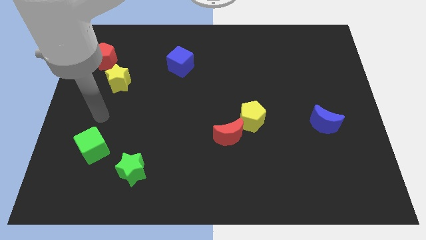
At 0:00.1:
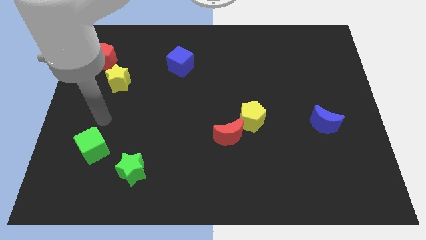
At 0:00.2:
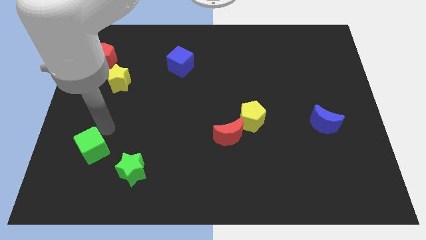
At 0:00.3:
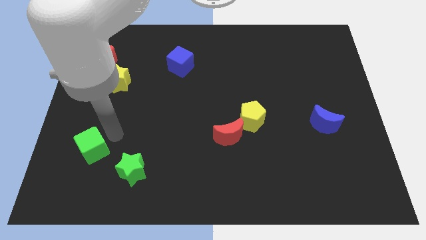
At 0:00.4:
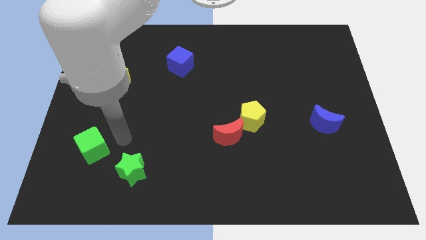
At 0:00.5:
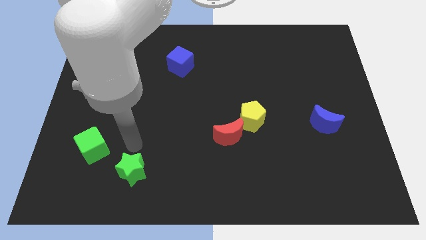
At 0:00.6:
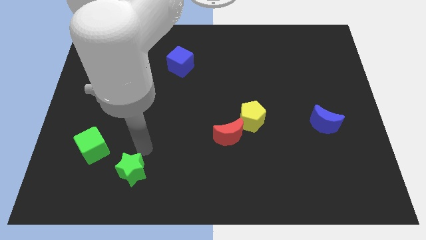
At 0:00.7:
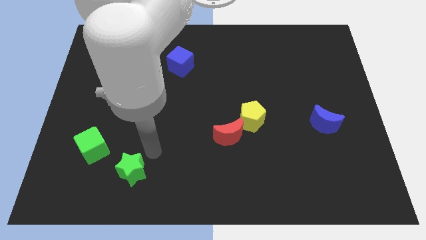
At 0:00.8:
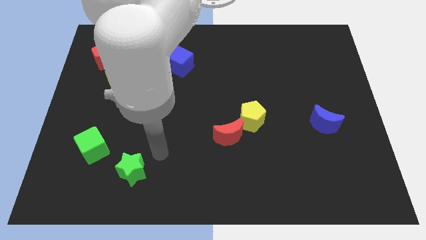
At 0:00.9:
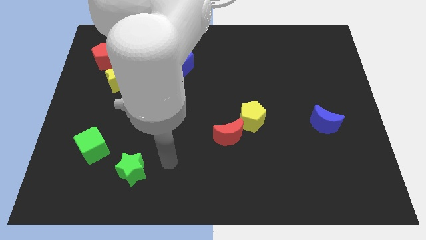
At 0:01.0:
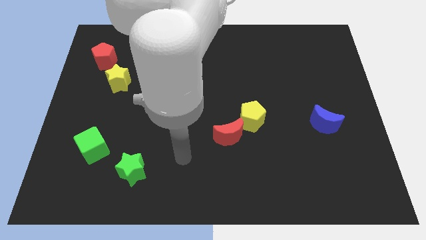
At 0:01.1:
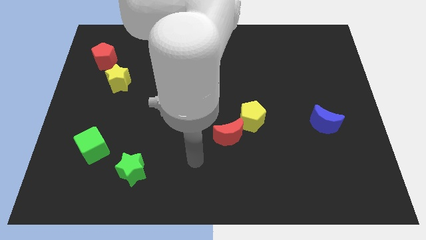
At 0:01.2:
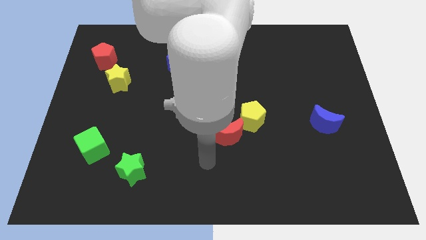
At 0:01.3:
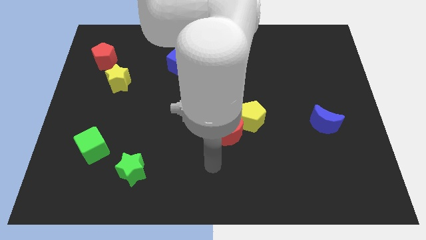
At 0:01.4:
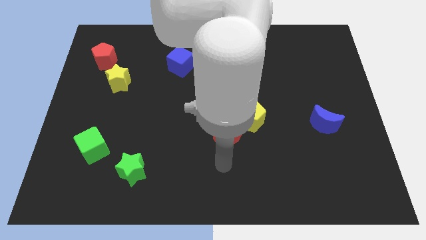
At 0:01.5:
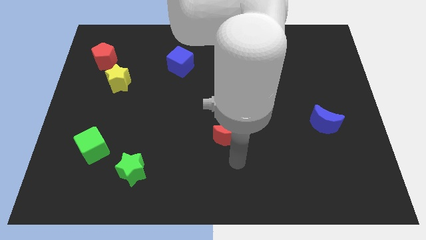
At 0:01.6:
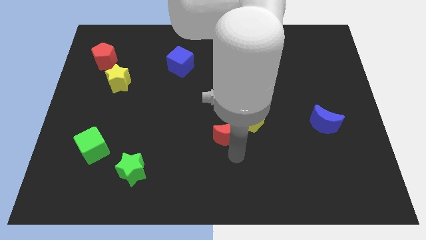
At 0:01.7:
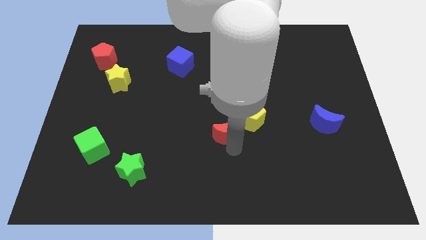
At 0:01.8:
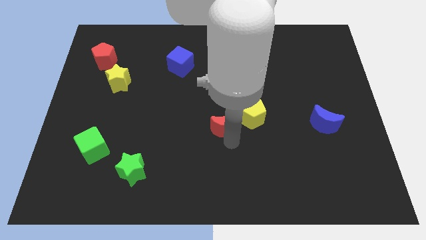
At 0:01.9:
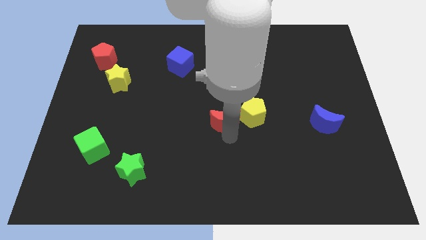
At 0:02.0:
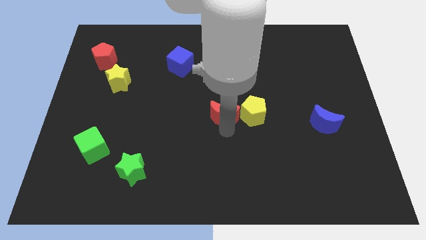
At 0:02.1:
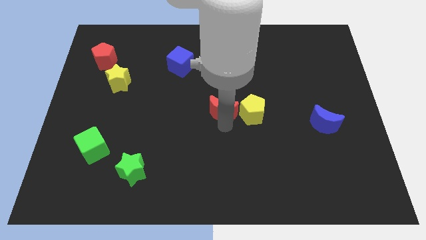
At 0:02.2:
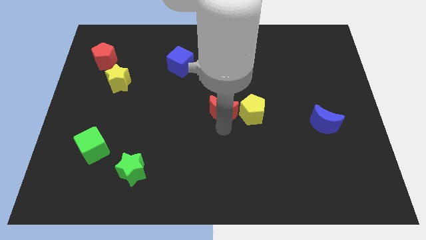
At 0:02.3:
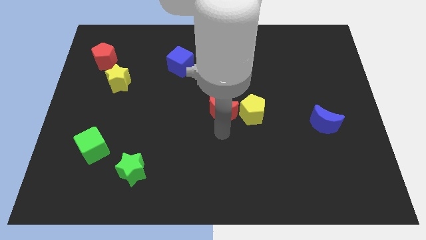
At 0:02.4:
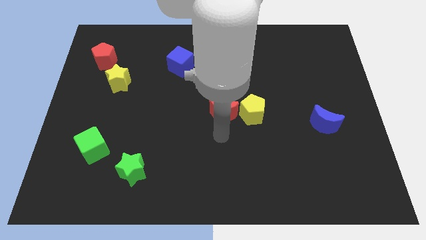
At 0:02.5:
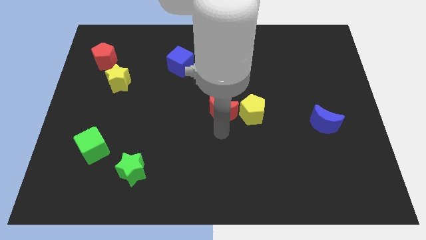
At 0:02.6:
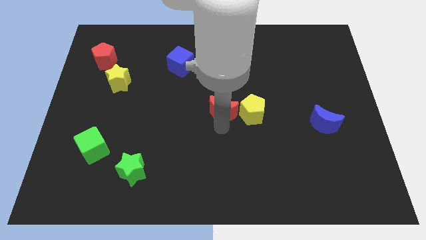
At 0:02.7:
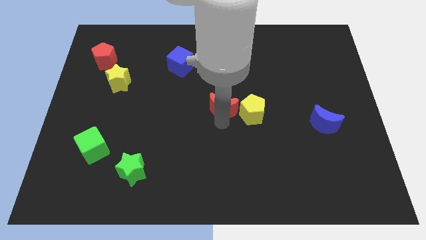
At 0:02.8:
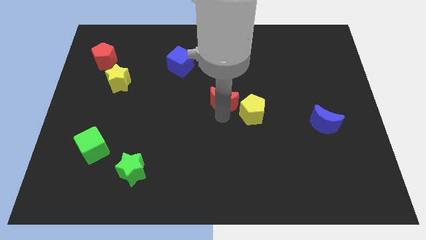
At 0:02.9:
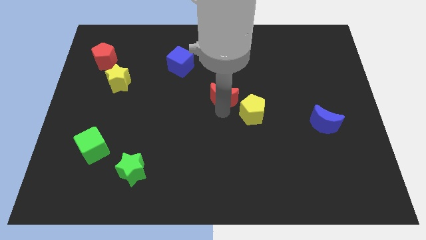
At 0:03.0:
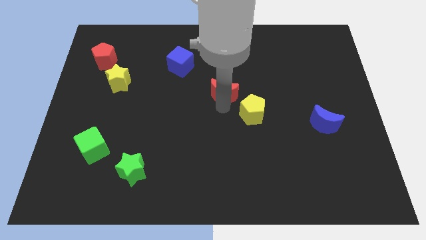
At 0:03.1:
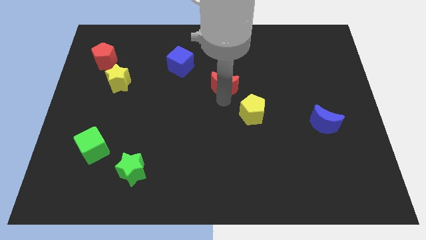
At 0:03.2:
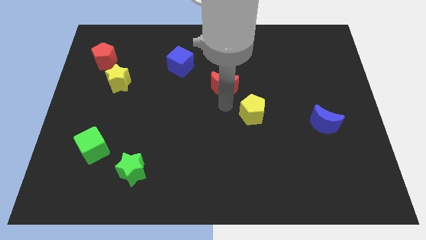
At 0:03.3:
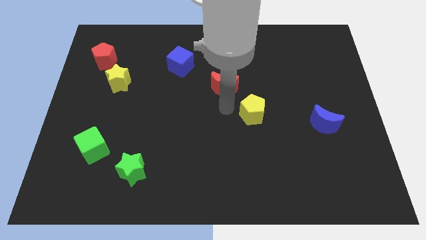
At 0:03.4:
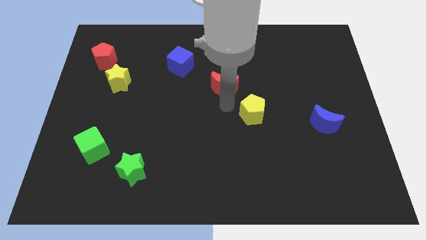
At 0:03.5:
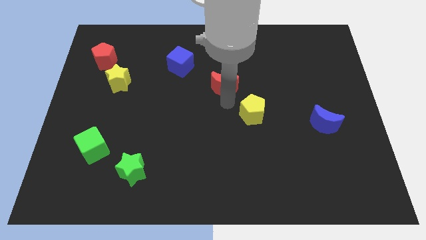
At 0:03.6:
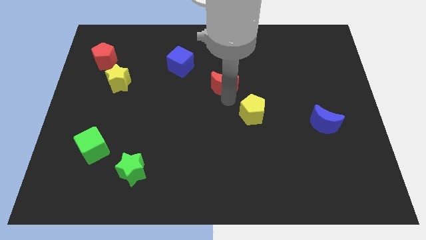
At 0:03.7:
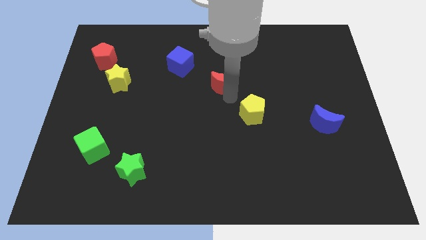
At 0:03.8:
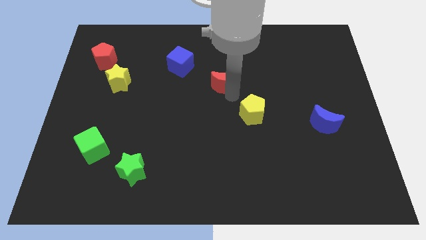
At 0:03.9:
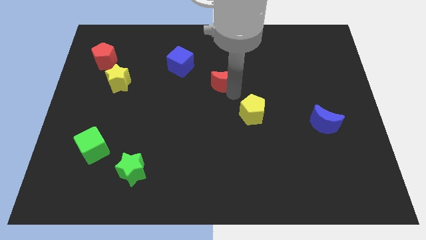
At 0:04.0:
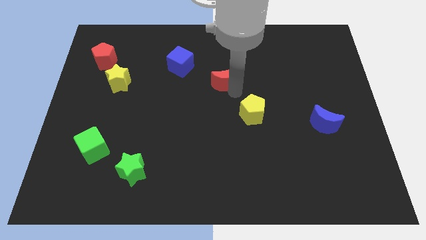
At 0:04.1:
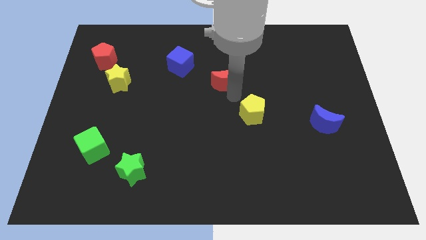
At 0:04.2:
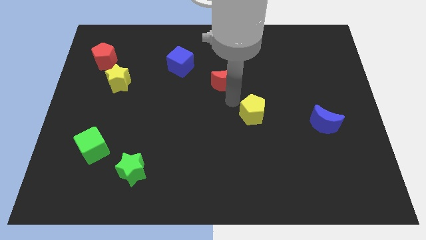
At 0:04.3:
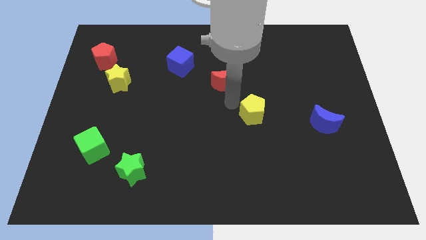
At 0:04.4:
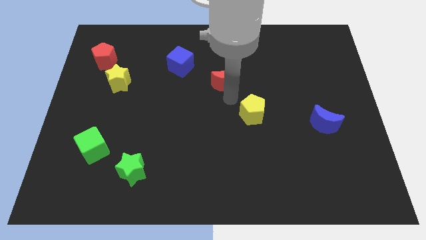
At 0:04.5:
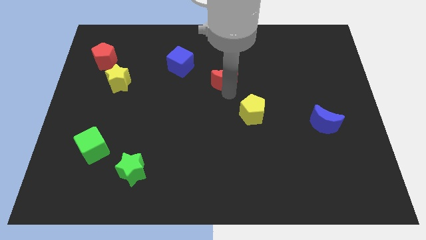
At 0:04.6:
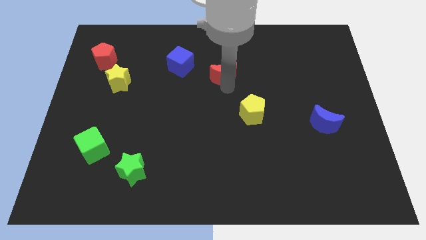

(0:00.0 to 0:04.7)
slide the red moon to the right of the blue cube

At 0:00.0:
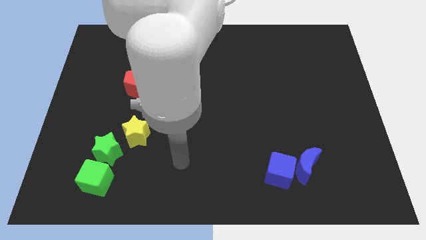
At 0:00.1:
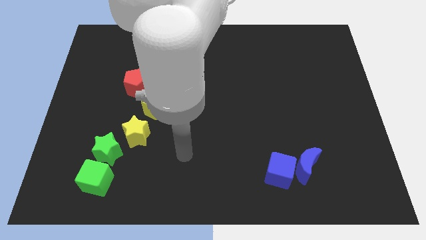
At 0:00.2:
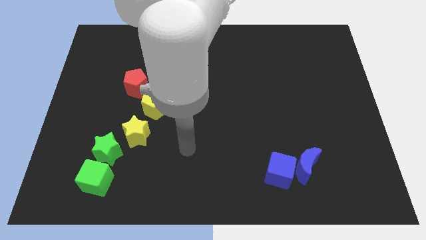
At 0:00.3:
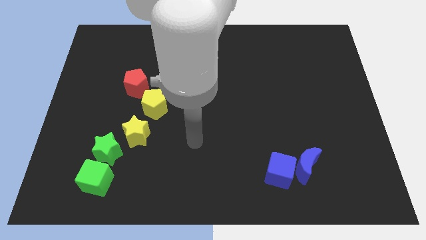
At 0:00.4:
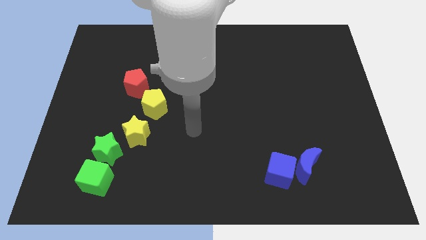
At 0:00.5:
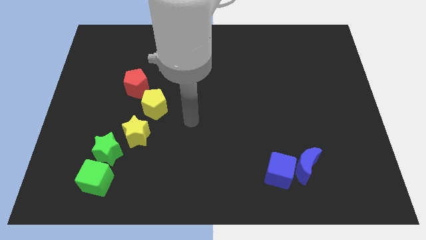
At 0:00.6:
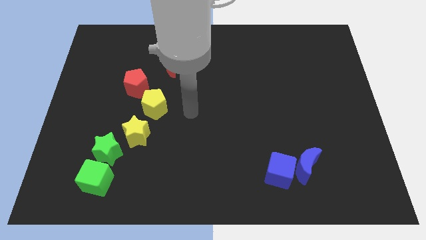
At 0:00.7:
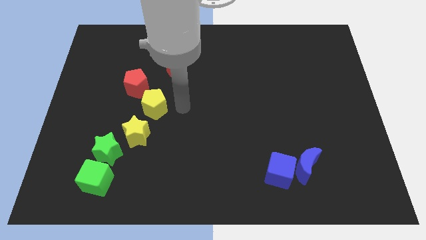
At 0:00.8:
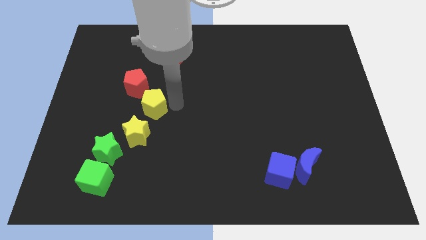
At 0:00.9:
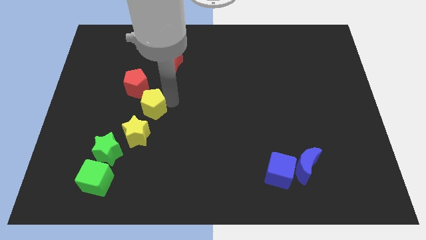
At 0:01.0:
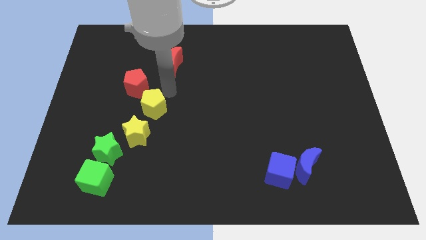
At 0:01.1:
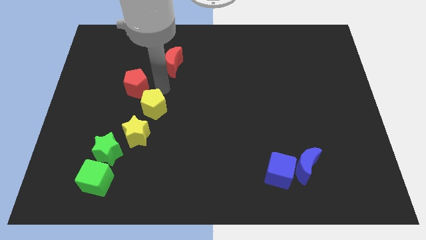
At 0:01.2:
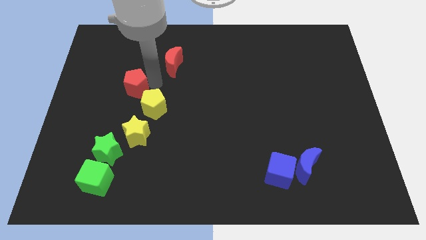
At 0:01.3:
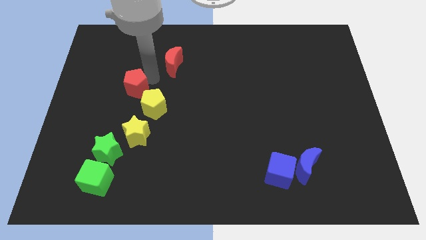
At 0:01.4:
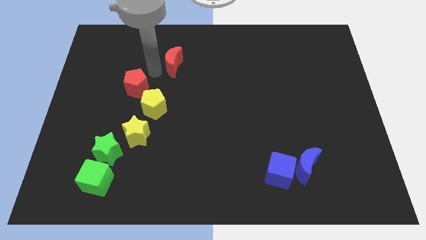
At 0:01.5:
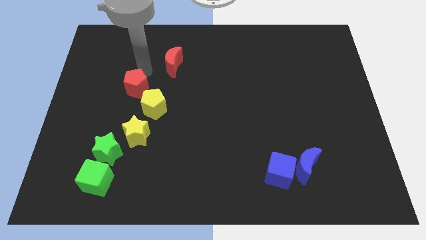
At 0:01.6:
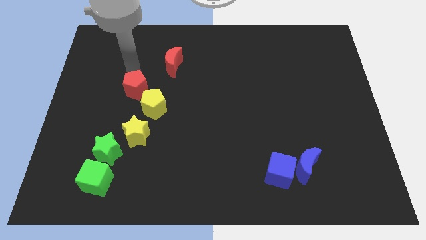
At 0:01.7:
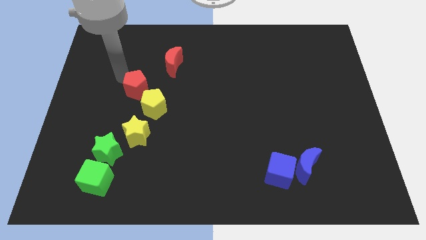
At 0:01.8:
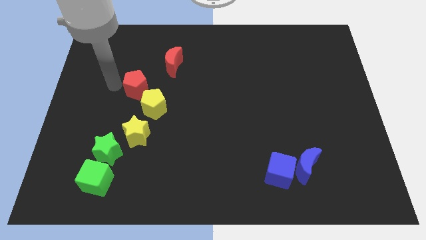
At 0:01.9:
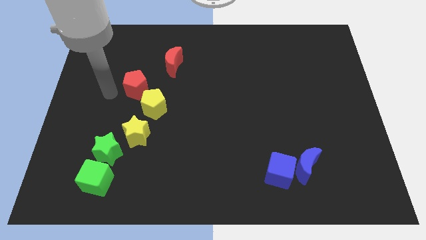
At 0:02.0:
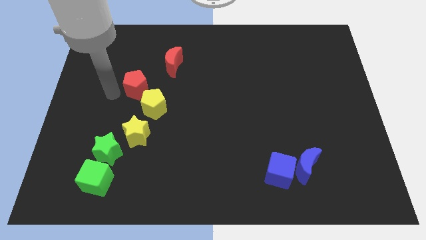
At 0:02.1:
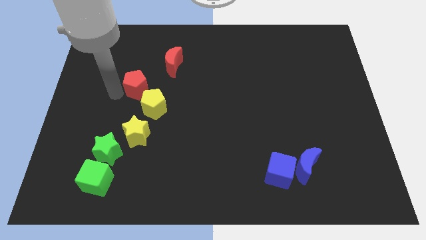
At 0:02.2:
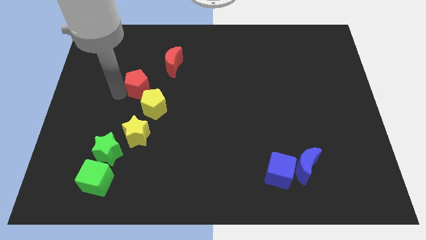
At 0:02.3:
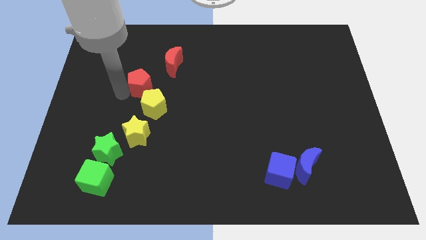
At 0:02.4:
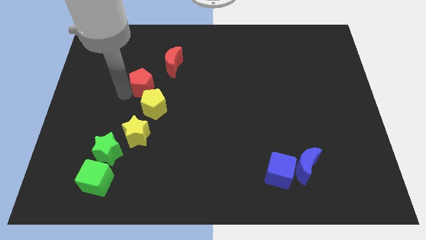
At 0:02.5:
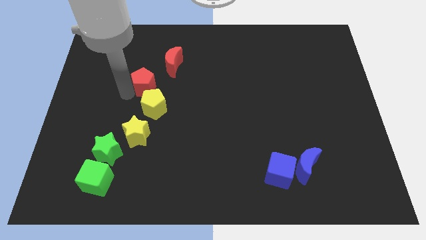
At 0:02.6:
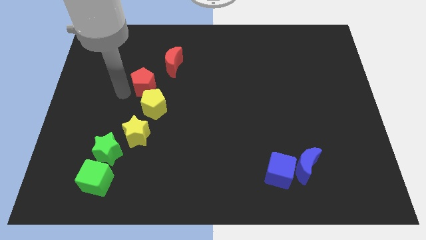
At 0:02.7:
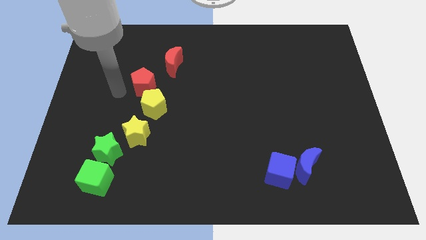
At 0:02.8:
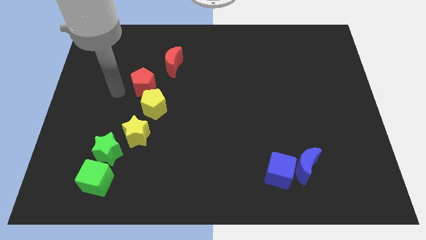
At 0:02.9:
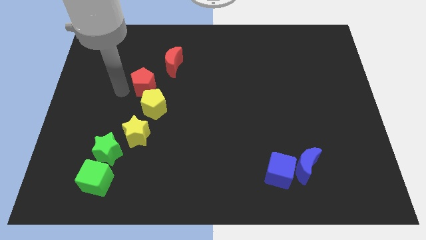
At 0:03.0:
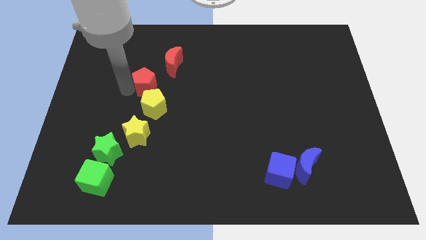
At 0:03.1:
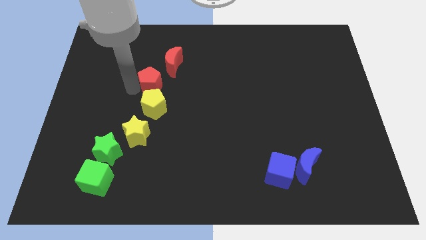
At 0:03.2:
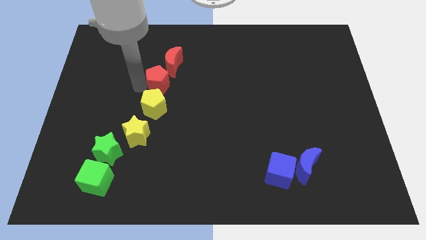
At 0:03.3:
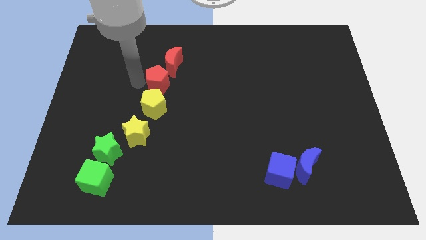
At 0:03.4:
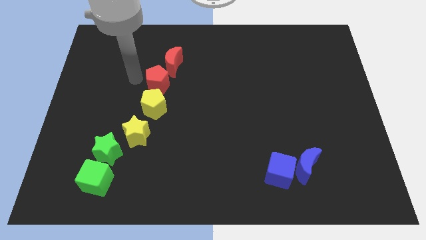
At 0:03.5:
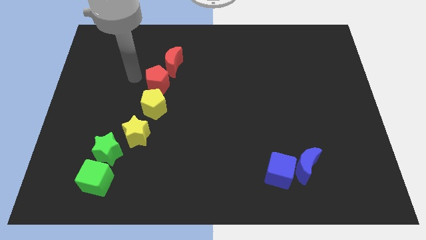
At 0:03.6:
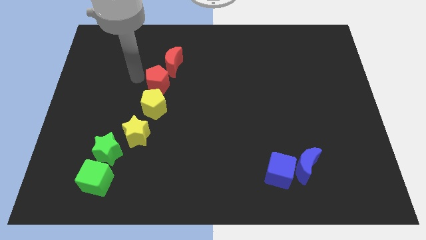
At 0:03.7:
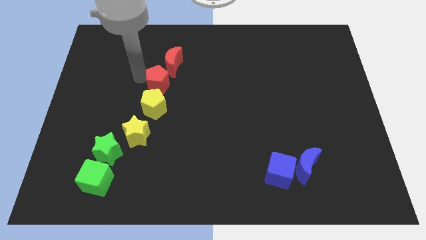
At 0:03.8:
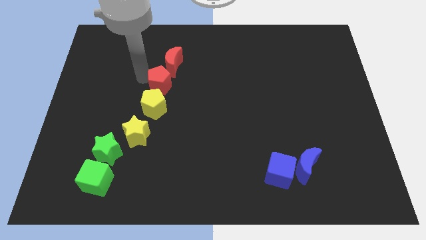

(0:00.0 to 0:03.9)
put the red pentagon diagonally up and to the right of the yellow pentagon
